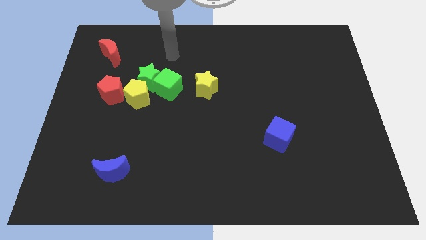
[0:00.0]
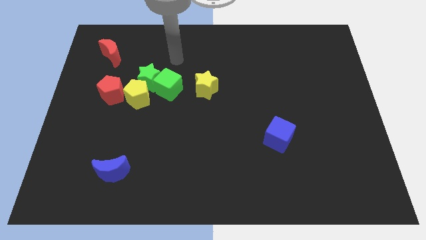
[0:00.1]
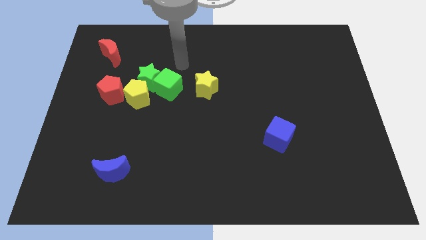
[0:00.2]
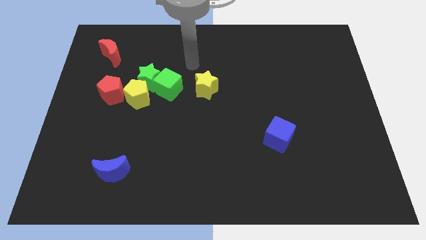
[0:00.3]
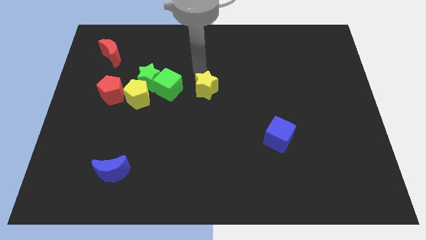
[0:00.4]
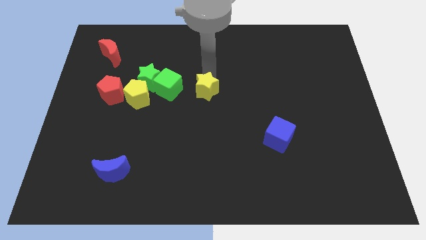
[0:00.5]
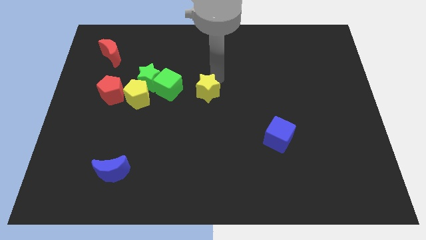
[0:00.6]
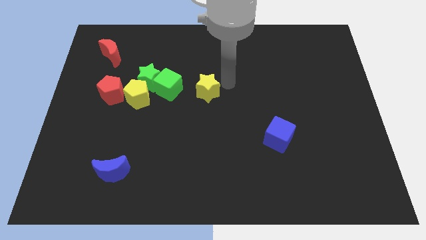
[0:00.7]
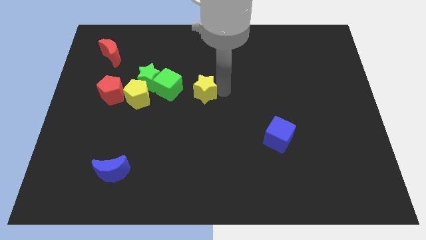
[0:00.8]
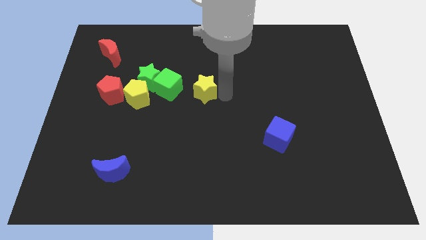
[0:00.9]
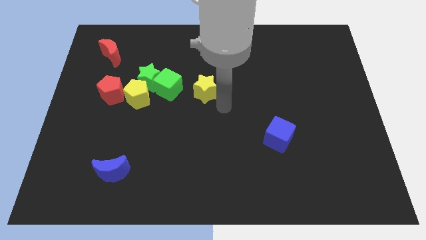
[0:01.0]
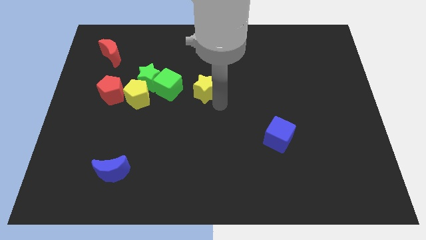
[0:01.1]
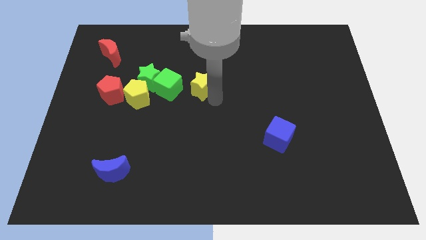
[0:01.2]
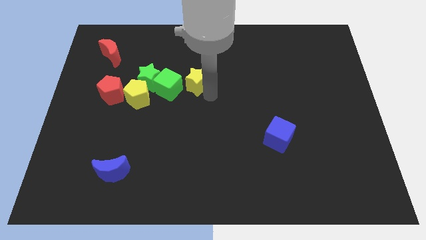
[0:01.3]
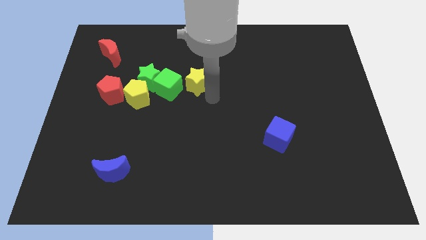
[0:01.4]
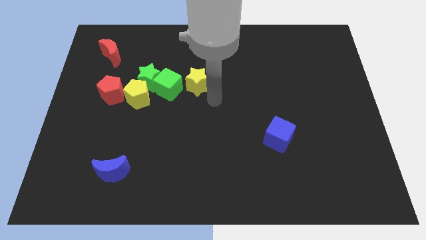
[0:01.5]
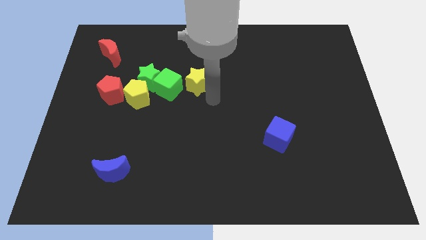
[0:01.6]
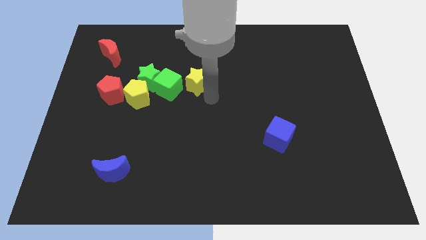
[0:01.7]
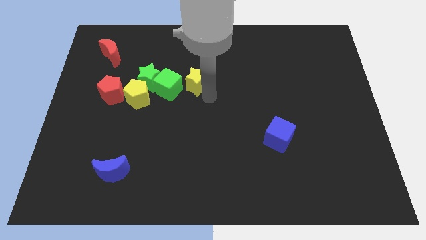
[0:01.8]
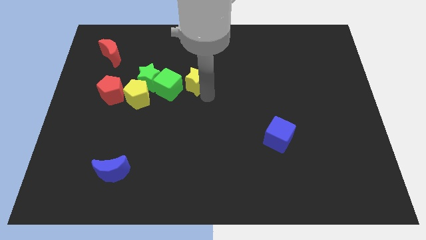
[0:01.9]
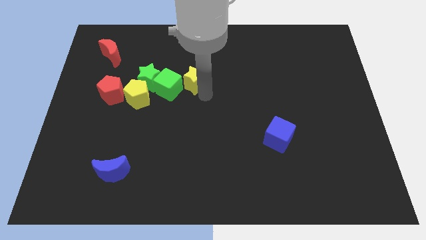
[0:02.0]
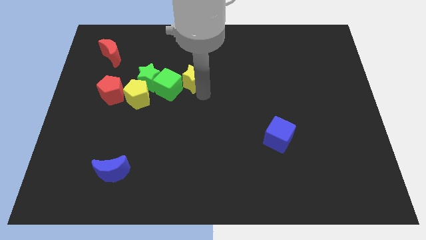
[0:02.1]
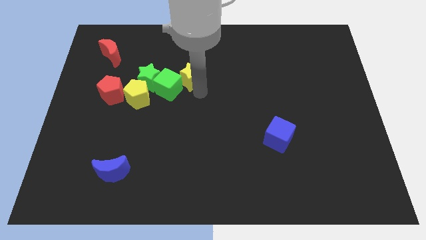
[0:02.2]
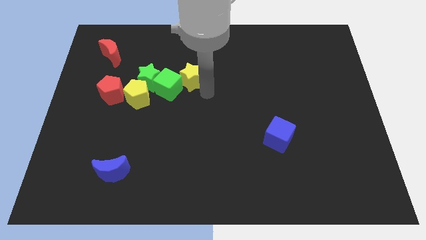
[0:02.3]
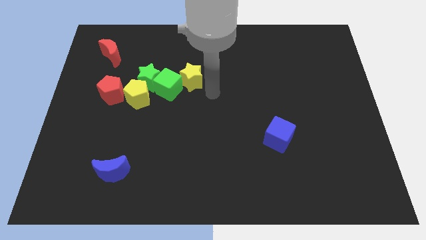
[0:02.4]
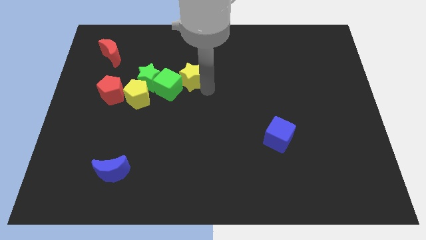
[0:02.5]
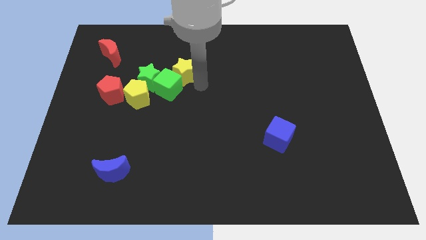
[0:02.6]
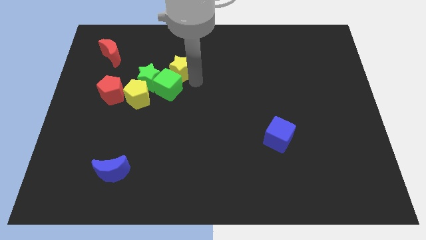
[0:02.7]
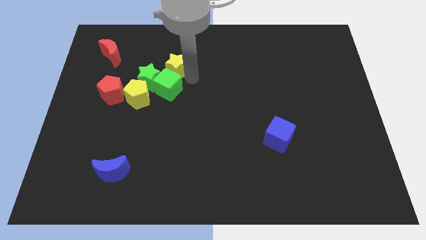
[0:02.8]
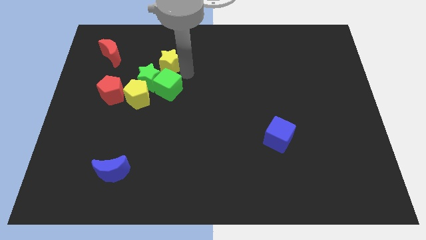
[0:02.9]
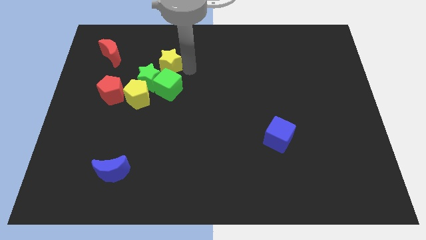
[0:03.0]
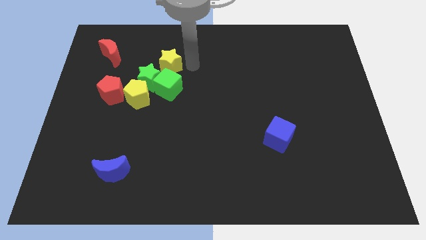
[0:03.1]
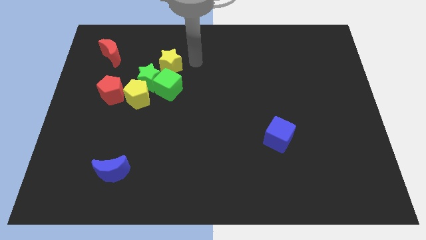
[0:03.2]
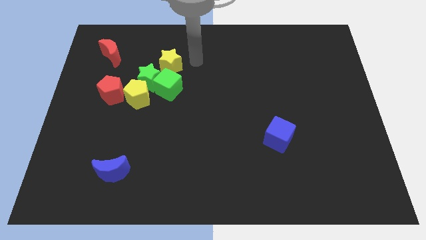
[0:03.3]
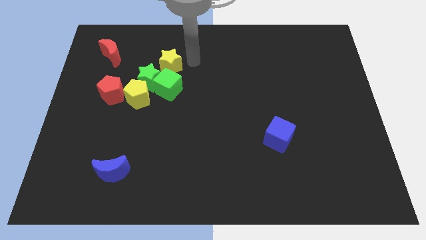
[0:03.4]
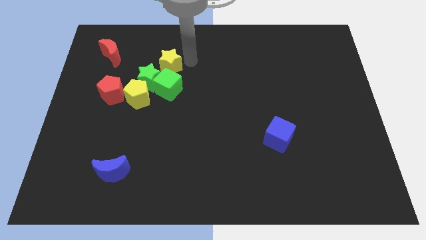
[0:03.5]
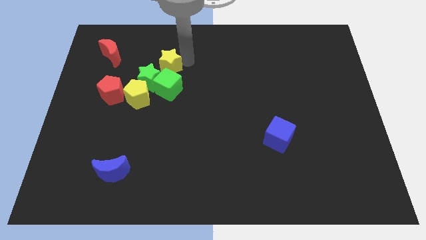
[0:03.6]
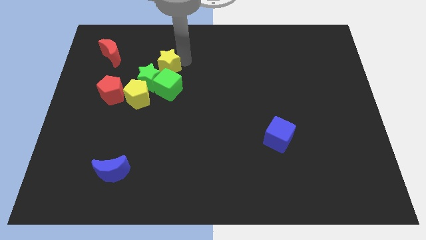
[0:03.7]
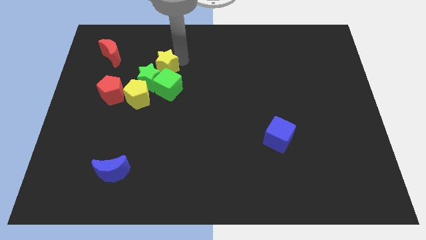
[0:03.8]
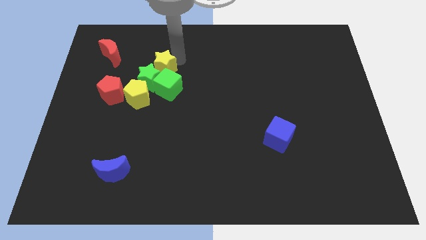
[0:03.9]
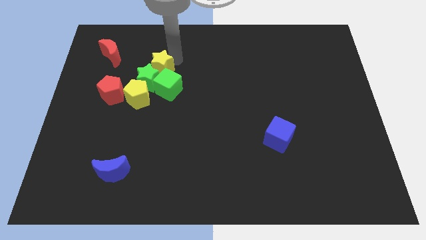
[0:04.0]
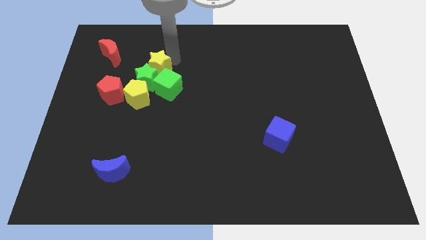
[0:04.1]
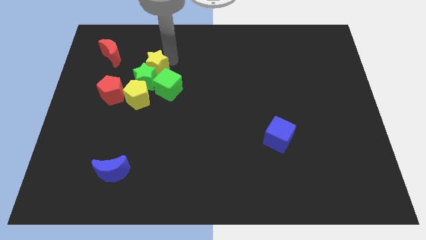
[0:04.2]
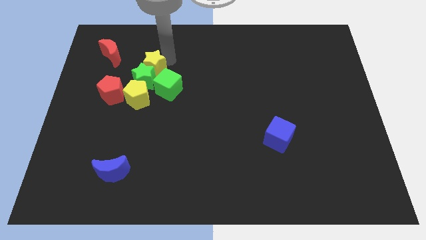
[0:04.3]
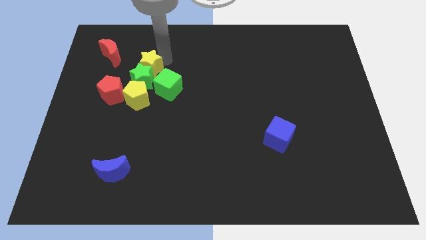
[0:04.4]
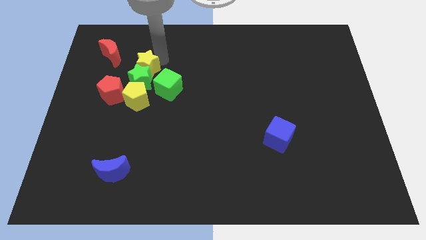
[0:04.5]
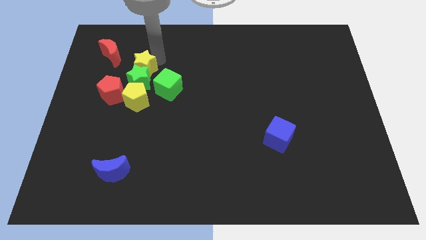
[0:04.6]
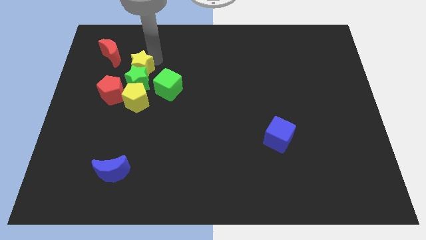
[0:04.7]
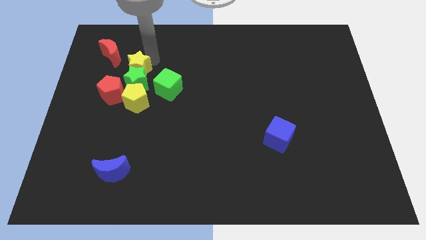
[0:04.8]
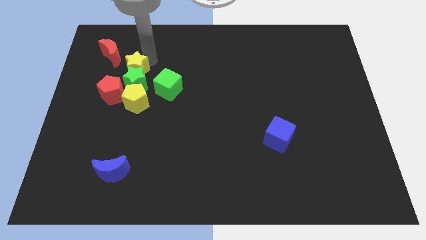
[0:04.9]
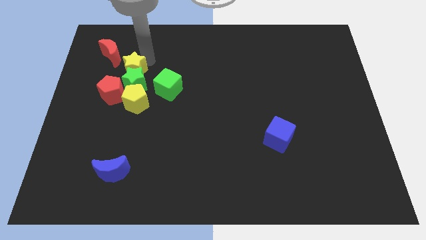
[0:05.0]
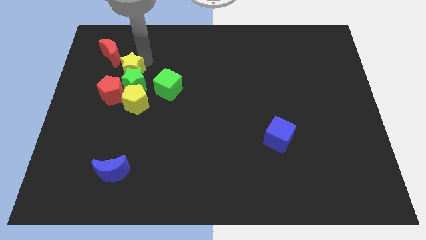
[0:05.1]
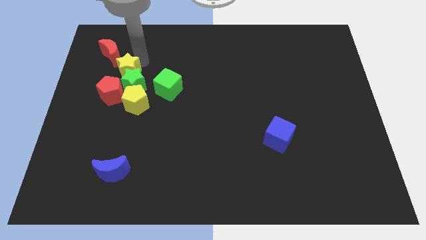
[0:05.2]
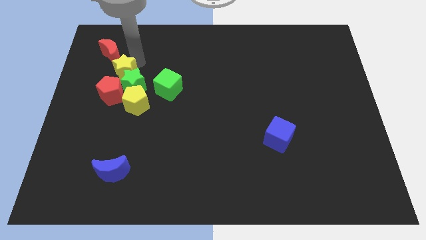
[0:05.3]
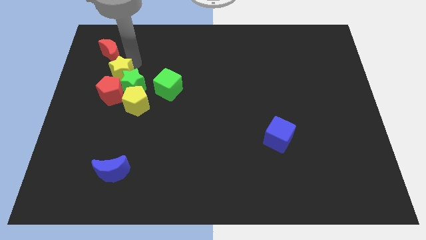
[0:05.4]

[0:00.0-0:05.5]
move the yellow star left of the green star

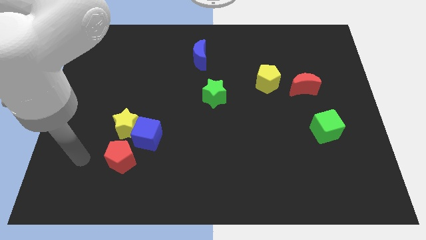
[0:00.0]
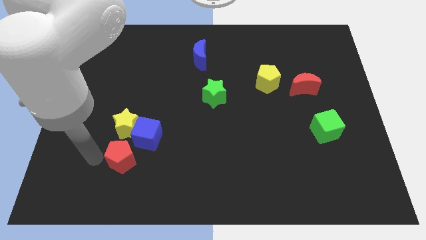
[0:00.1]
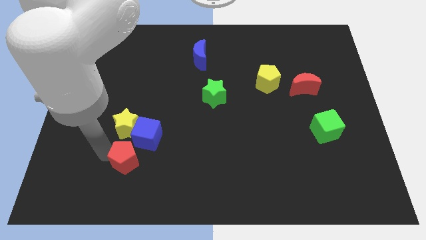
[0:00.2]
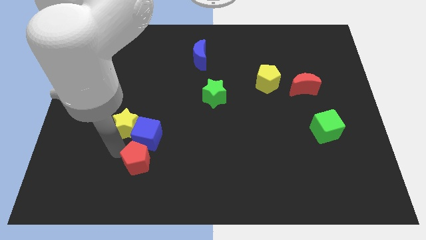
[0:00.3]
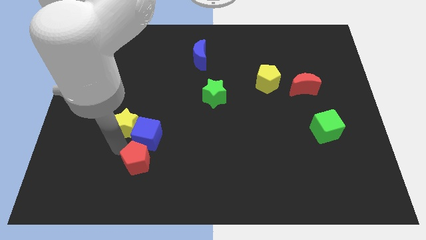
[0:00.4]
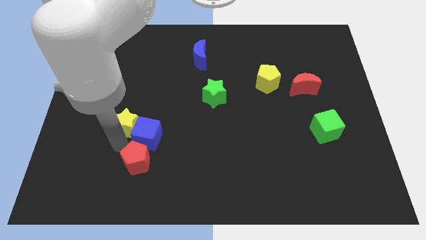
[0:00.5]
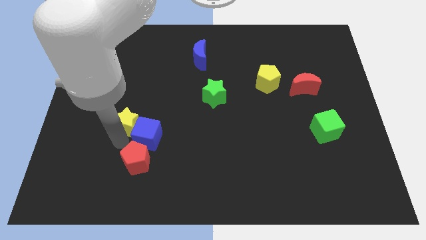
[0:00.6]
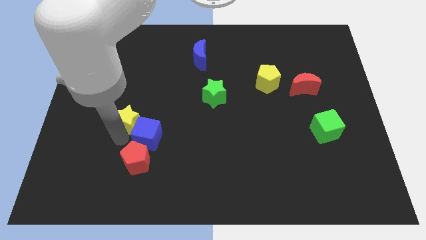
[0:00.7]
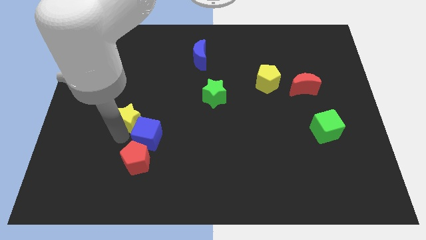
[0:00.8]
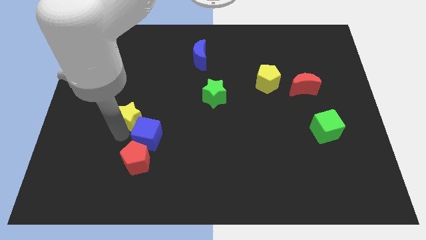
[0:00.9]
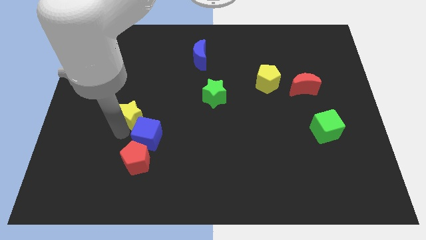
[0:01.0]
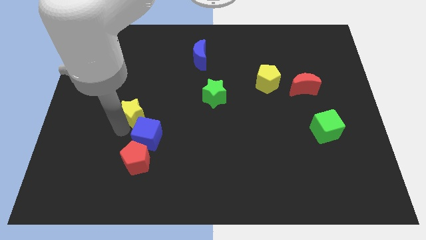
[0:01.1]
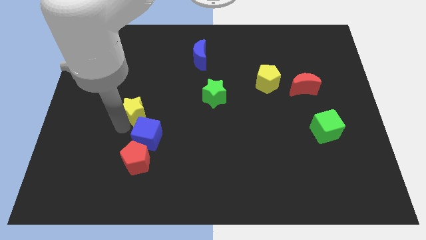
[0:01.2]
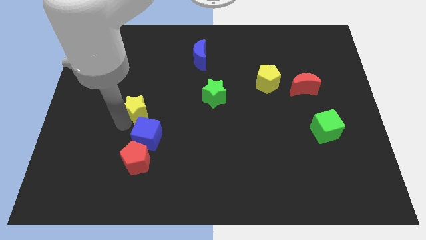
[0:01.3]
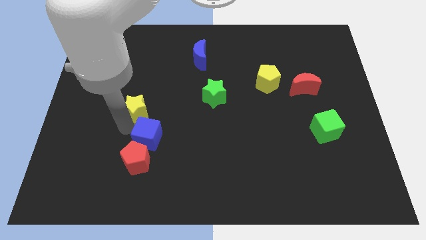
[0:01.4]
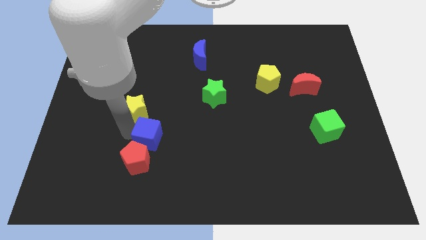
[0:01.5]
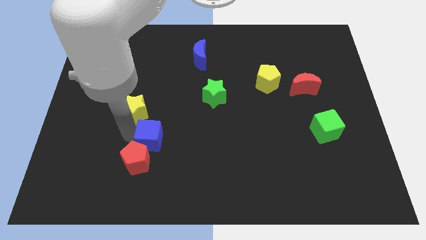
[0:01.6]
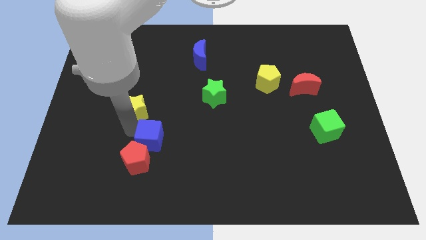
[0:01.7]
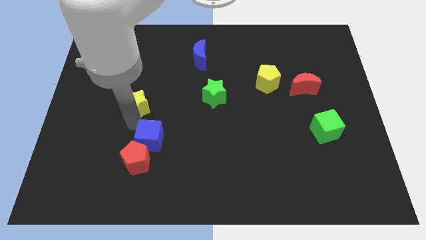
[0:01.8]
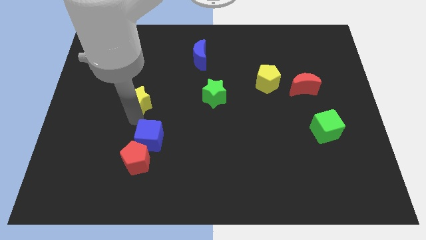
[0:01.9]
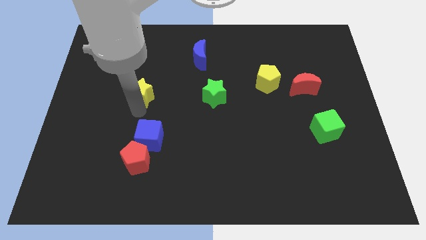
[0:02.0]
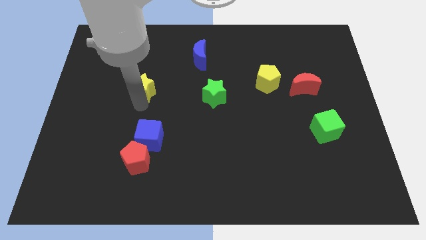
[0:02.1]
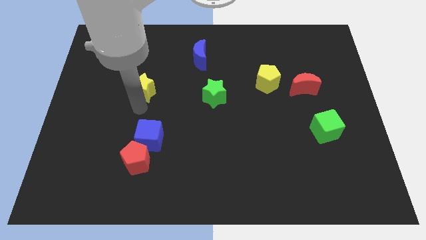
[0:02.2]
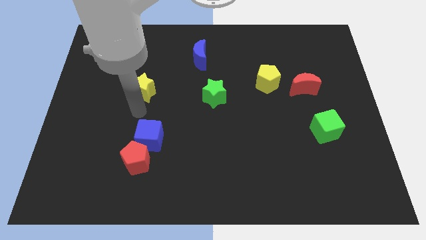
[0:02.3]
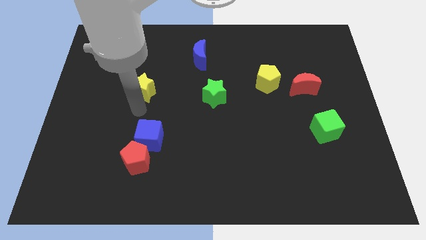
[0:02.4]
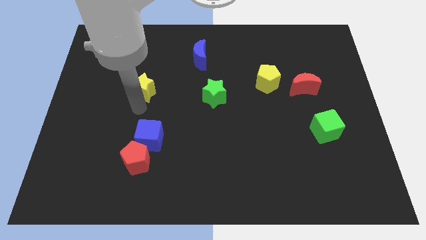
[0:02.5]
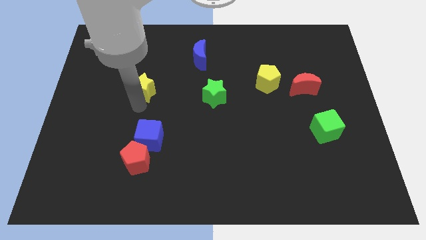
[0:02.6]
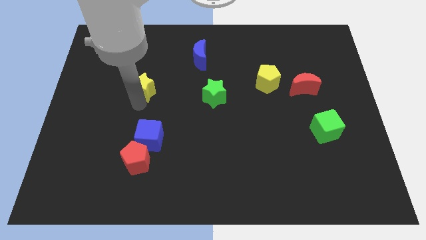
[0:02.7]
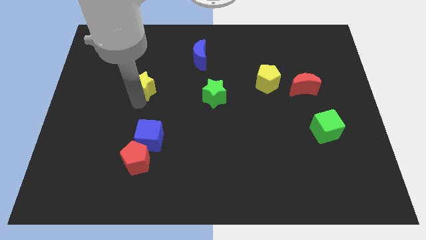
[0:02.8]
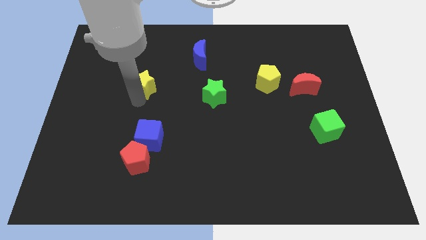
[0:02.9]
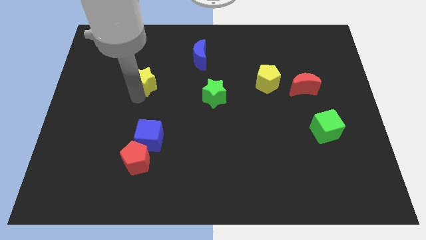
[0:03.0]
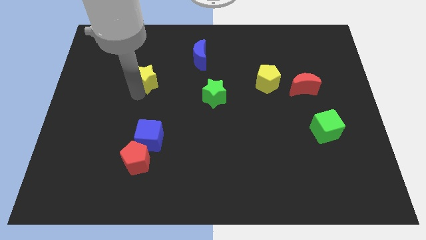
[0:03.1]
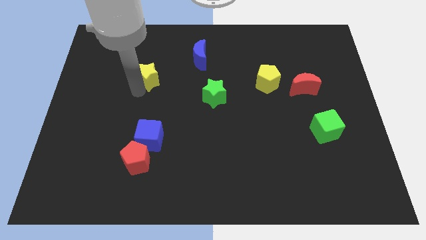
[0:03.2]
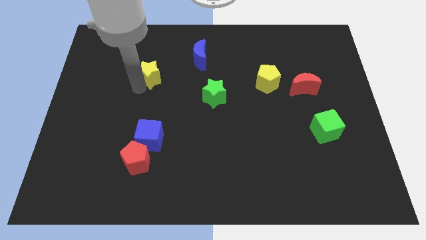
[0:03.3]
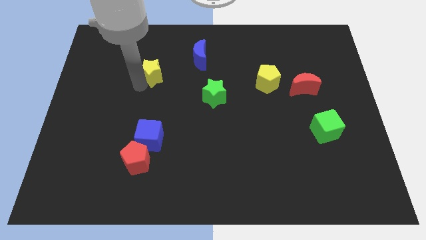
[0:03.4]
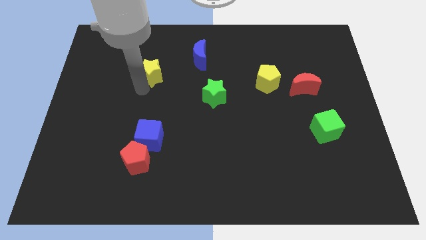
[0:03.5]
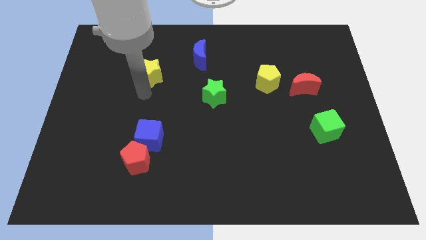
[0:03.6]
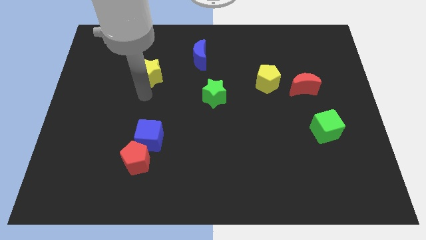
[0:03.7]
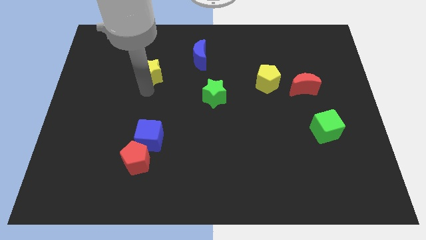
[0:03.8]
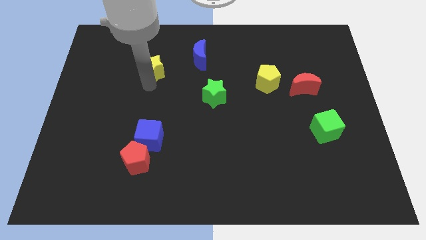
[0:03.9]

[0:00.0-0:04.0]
push the yellow star to the left side of the blue moon
